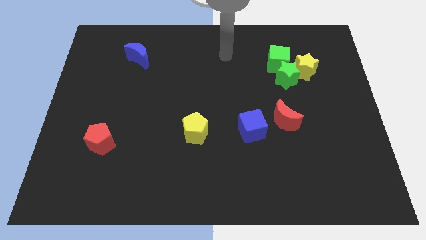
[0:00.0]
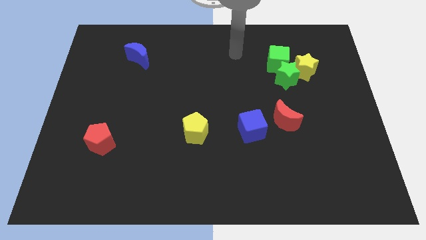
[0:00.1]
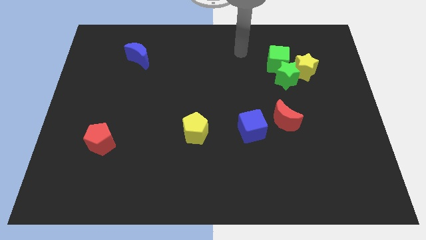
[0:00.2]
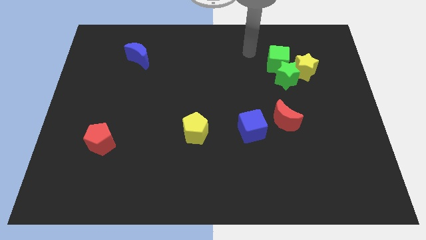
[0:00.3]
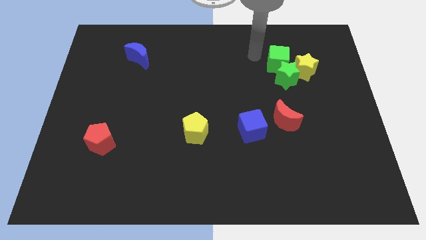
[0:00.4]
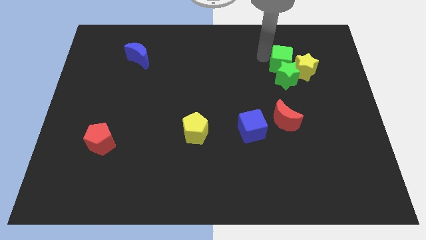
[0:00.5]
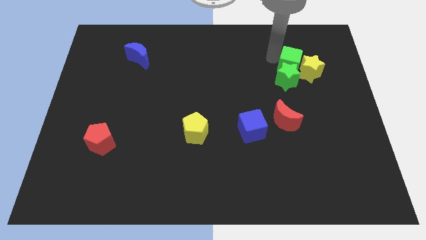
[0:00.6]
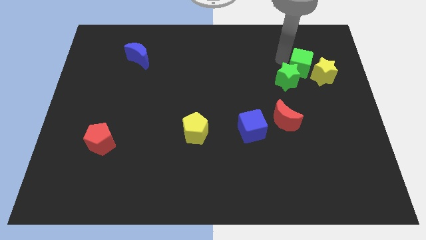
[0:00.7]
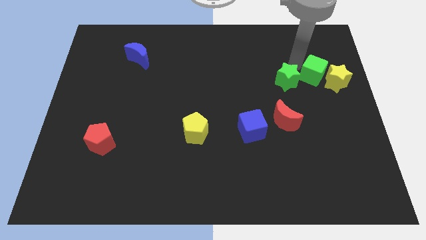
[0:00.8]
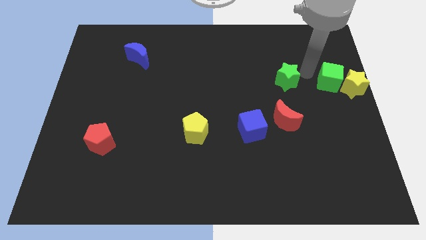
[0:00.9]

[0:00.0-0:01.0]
pull the green star apart from the yellow star and green cube

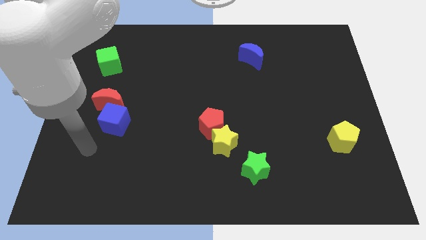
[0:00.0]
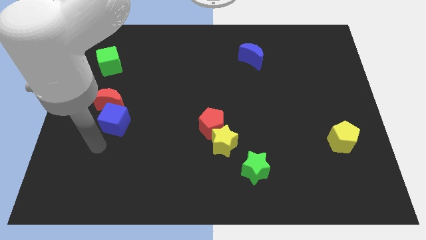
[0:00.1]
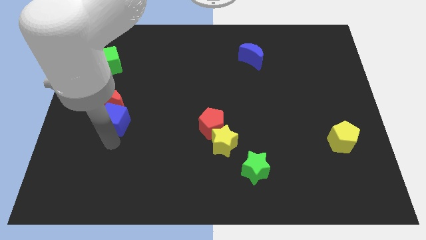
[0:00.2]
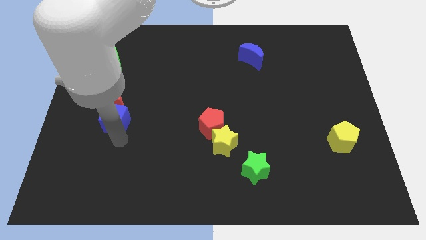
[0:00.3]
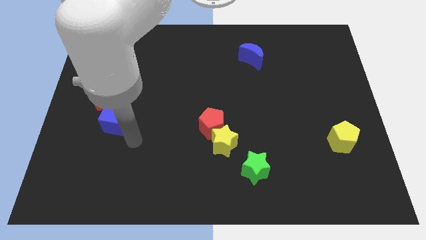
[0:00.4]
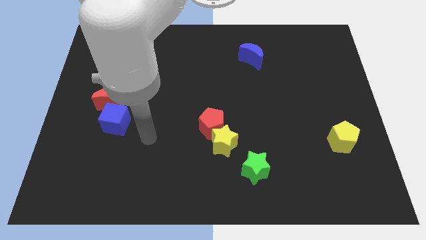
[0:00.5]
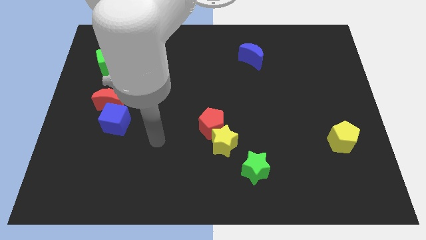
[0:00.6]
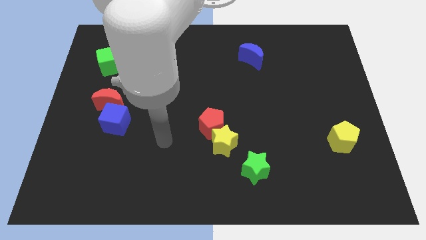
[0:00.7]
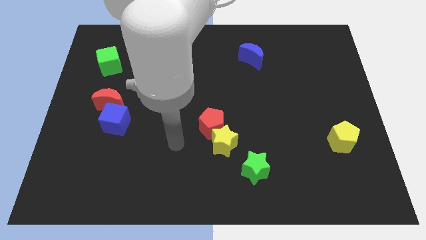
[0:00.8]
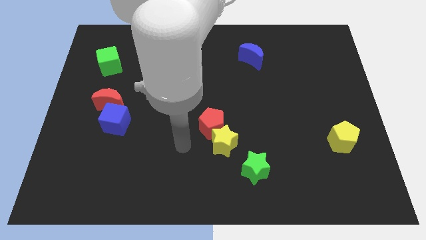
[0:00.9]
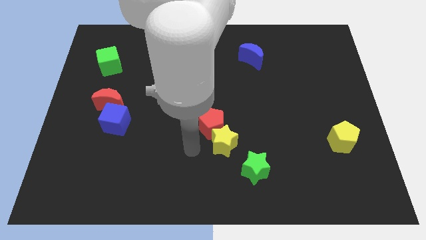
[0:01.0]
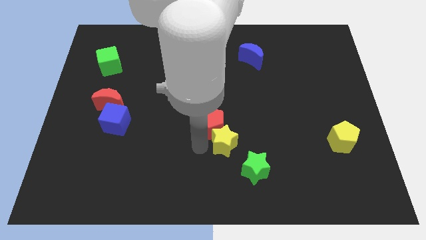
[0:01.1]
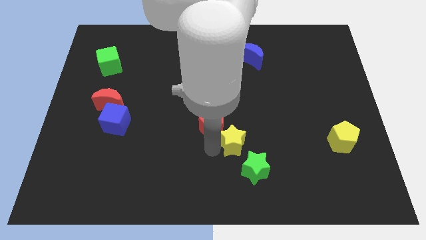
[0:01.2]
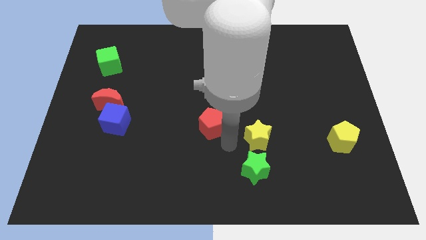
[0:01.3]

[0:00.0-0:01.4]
separate the red pentagon from the yellow star

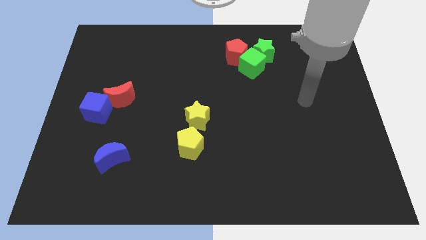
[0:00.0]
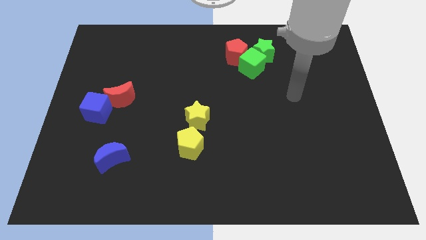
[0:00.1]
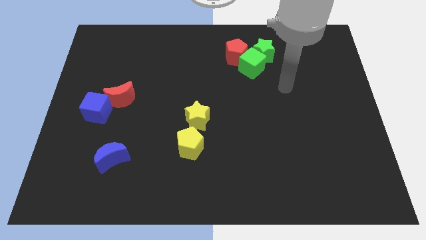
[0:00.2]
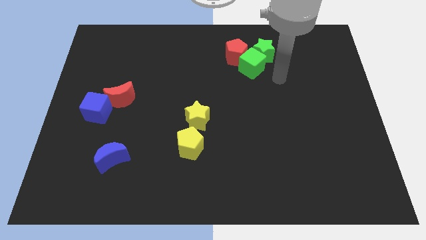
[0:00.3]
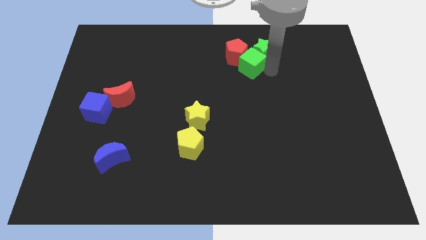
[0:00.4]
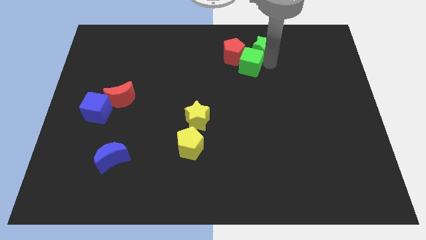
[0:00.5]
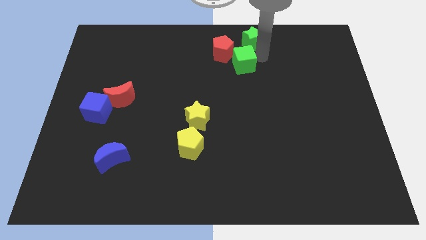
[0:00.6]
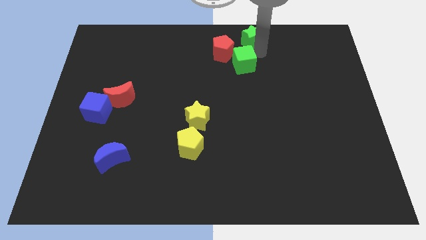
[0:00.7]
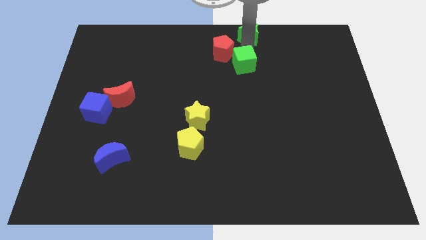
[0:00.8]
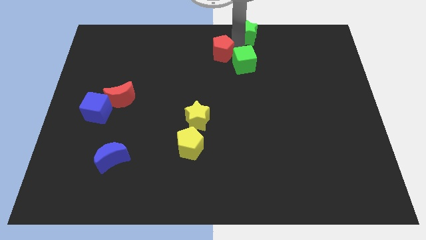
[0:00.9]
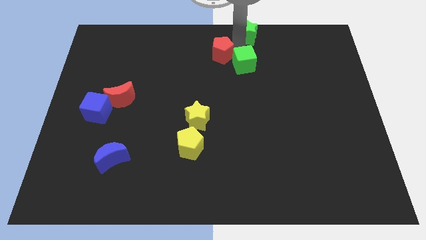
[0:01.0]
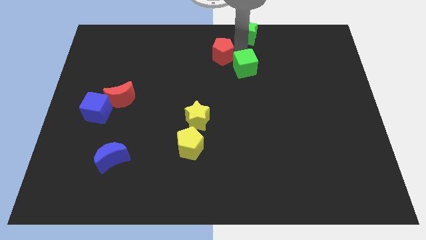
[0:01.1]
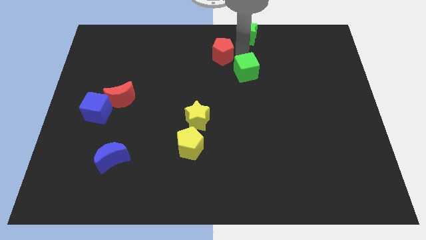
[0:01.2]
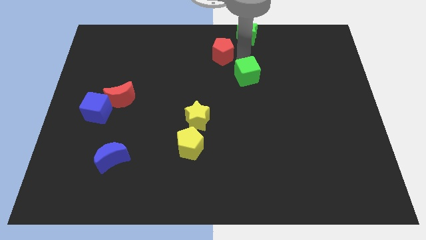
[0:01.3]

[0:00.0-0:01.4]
move the green cube away from the green star and red pentagon

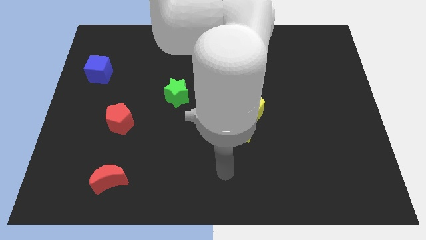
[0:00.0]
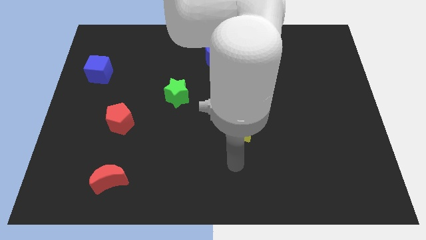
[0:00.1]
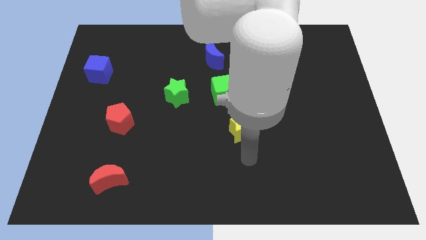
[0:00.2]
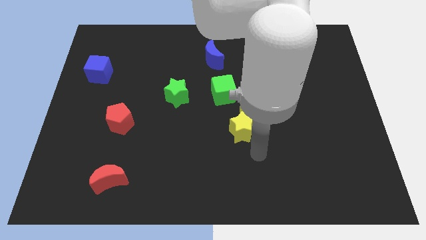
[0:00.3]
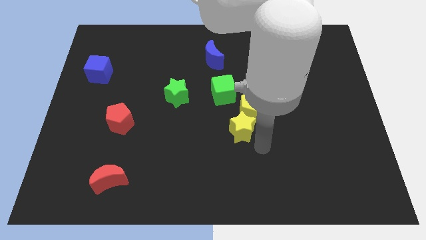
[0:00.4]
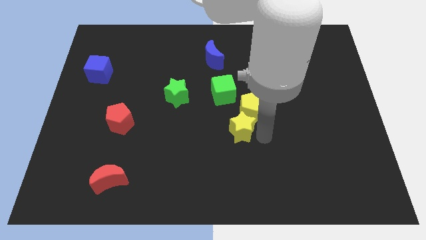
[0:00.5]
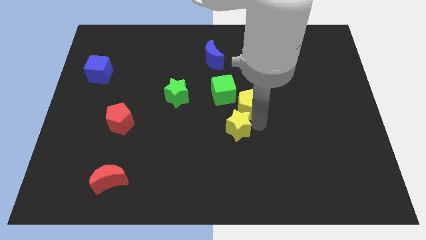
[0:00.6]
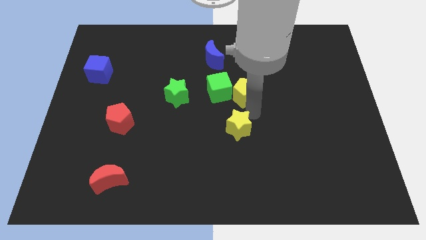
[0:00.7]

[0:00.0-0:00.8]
pull the yellow star apart from the yellow pentagon

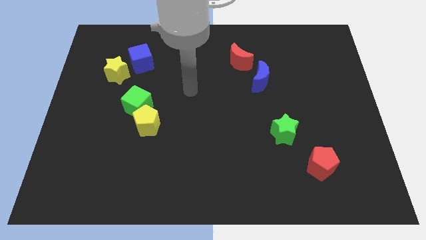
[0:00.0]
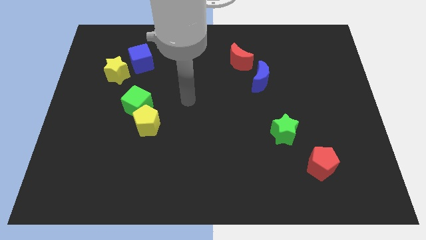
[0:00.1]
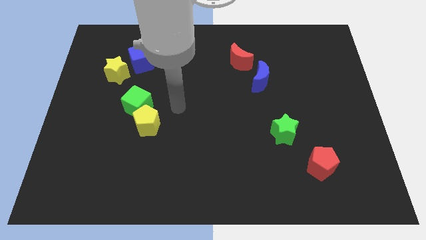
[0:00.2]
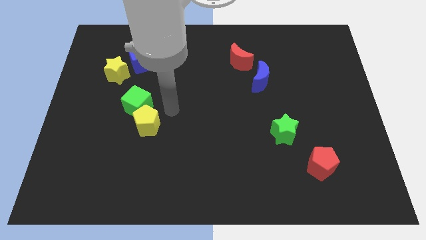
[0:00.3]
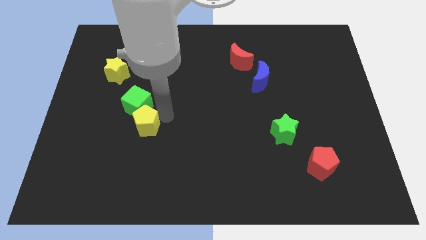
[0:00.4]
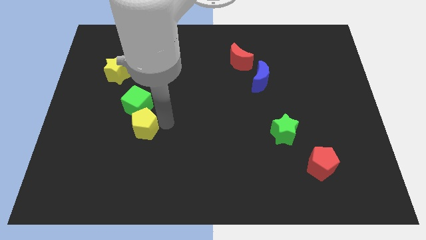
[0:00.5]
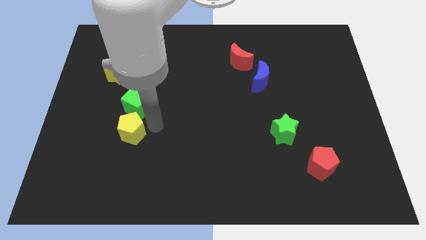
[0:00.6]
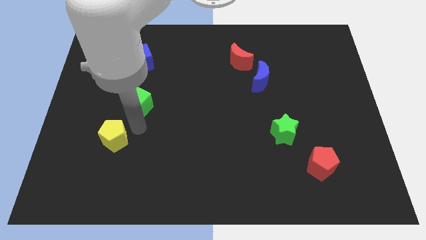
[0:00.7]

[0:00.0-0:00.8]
separate the green cube from the yellow pentagon

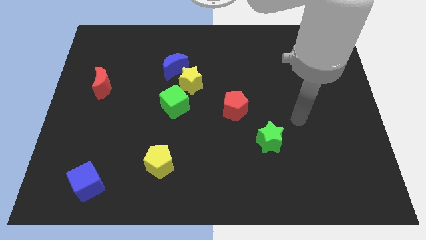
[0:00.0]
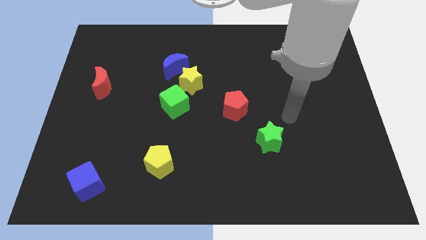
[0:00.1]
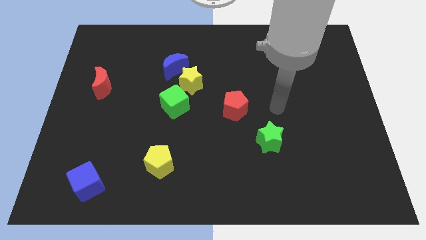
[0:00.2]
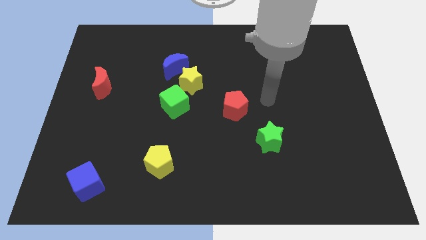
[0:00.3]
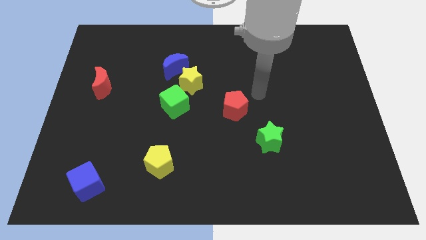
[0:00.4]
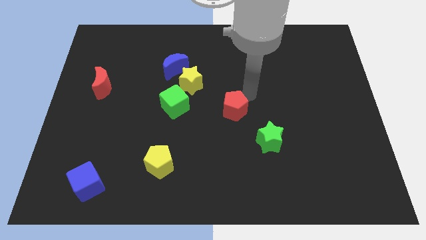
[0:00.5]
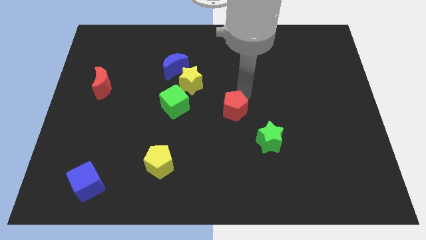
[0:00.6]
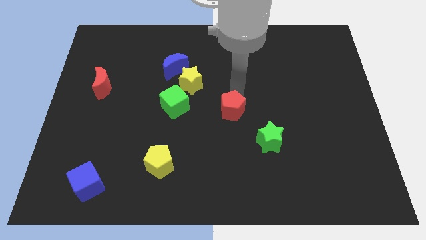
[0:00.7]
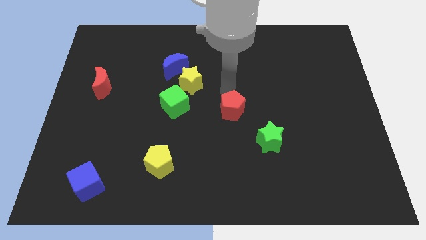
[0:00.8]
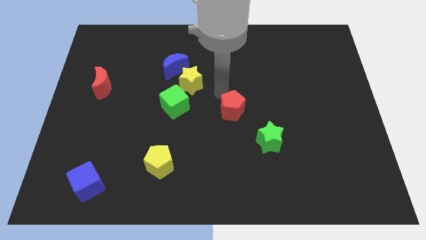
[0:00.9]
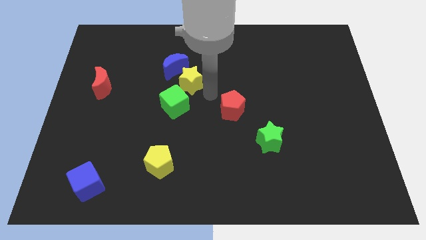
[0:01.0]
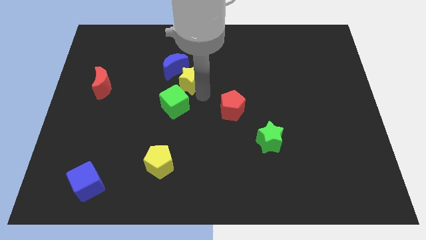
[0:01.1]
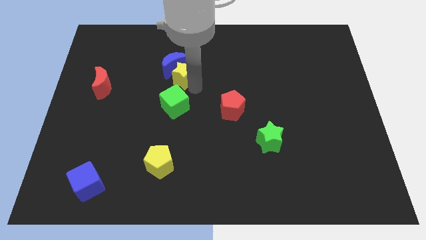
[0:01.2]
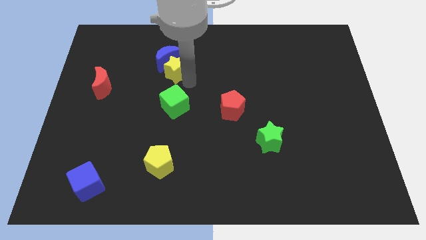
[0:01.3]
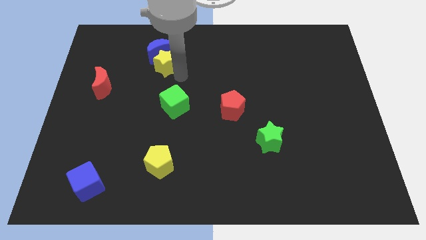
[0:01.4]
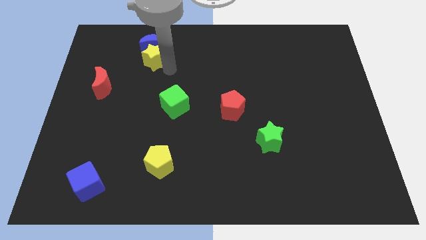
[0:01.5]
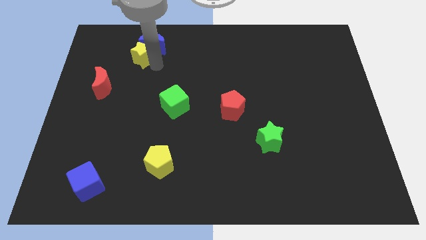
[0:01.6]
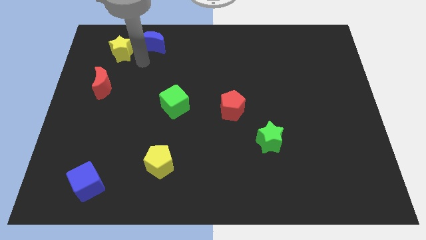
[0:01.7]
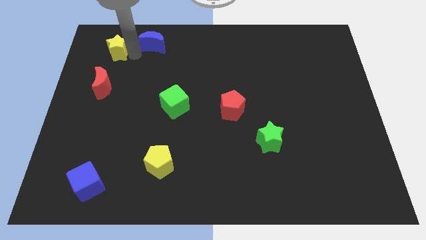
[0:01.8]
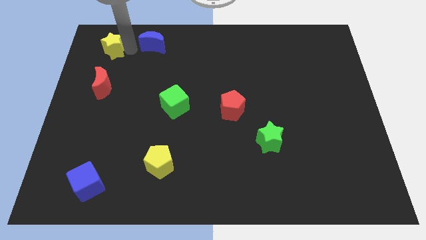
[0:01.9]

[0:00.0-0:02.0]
move the blue moon away from the yellow star

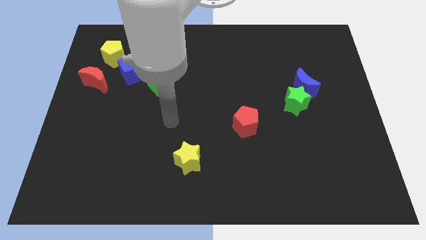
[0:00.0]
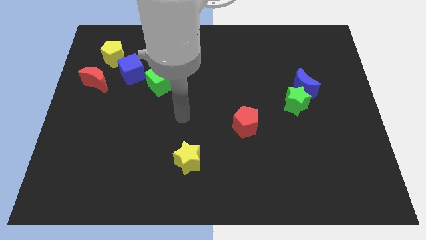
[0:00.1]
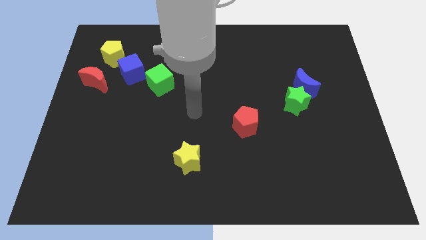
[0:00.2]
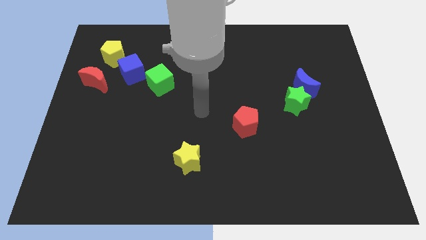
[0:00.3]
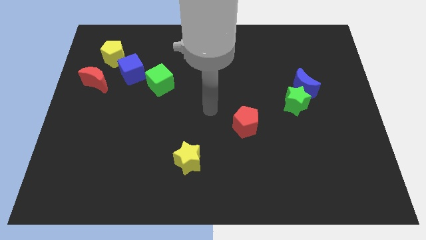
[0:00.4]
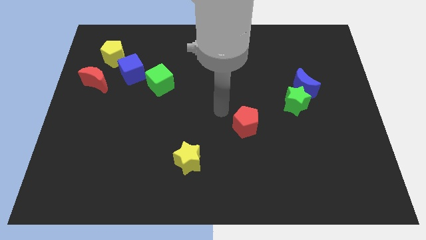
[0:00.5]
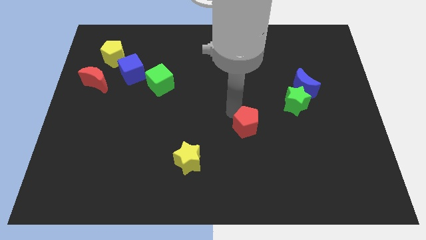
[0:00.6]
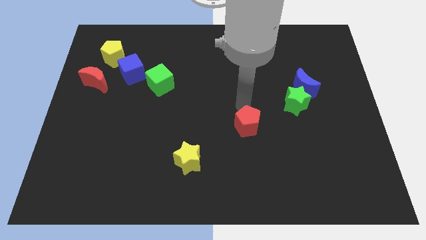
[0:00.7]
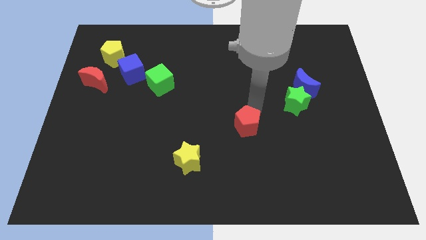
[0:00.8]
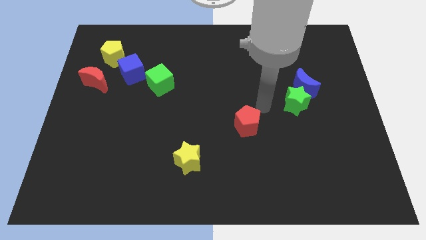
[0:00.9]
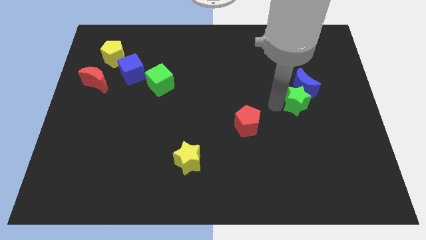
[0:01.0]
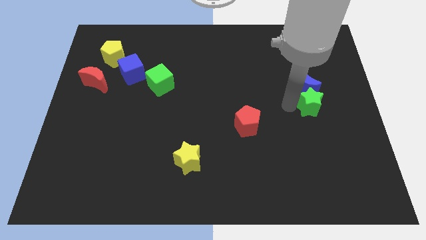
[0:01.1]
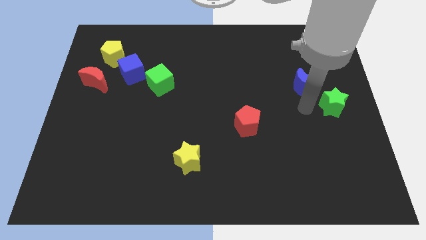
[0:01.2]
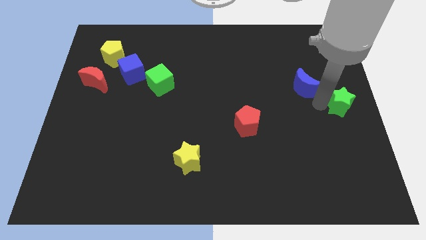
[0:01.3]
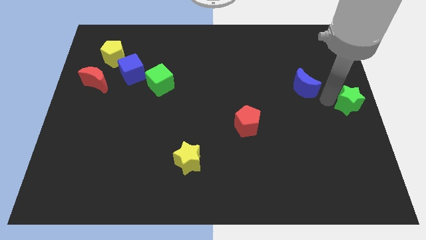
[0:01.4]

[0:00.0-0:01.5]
move the blue moon away from the green star

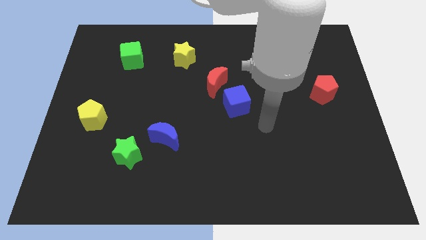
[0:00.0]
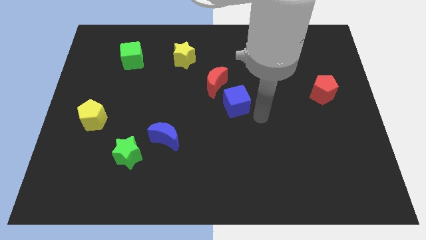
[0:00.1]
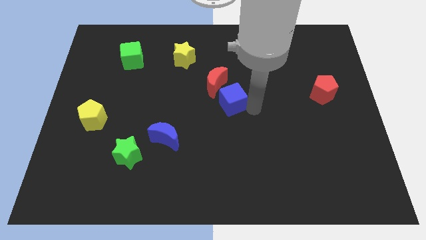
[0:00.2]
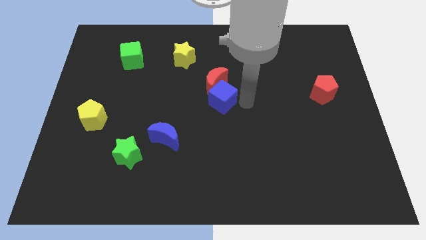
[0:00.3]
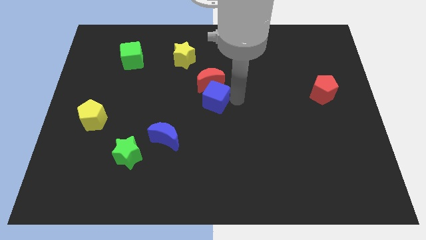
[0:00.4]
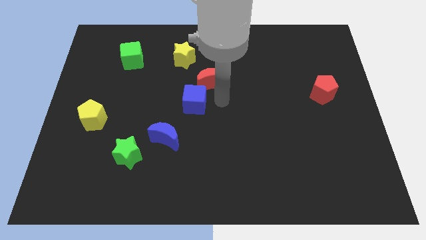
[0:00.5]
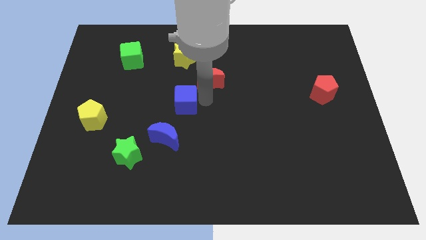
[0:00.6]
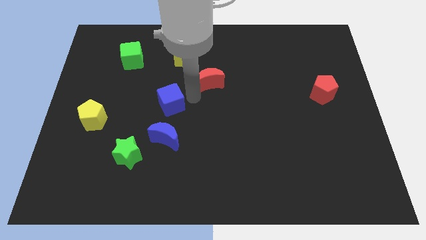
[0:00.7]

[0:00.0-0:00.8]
pull the red moon apart from the blue cube
